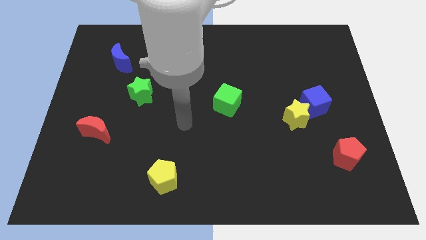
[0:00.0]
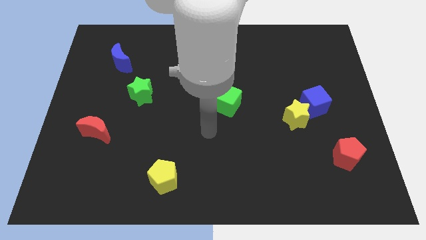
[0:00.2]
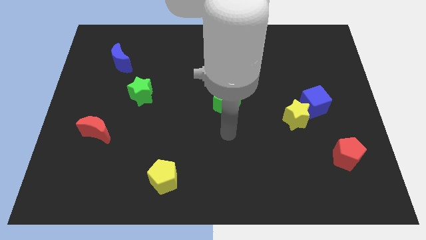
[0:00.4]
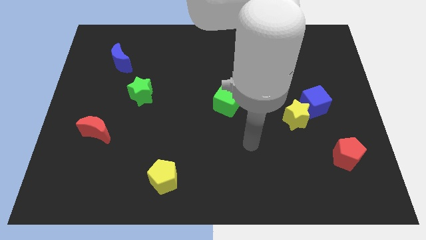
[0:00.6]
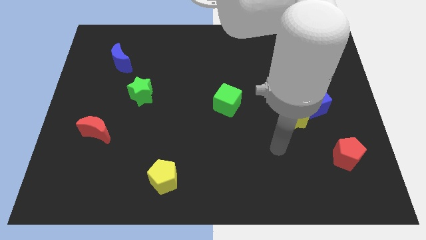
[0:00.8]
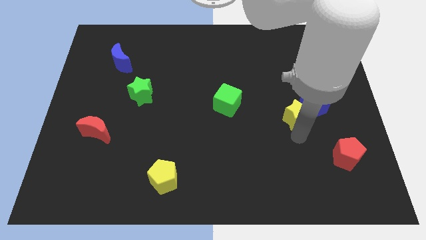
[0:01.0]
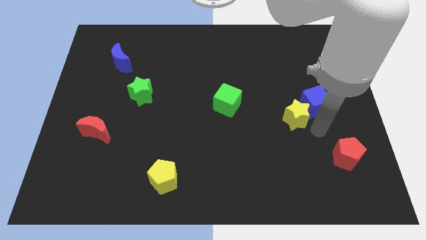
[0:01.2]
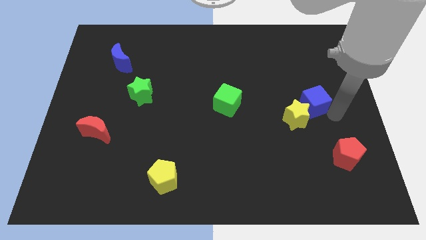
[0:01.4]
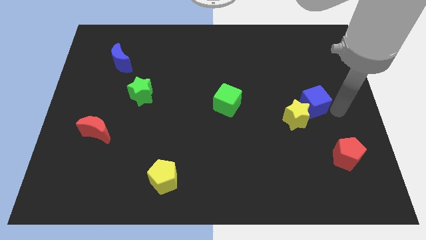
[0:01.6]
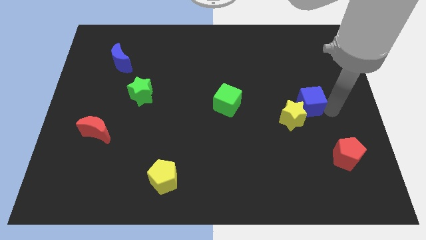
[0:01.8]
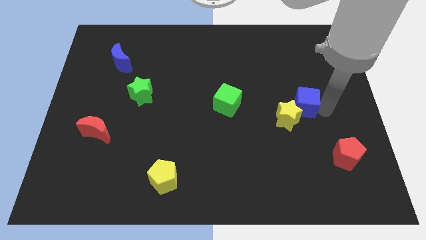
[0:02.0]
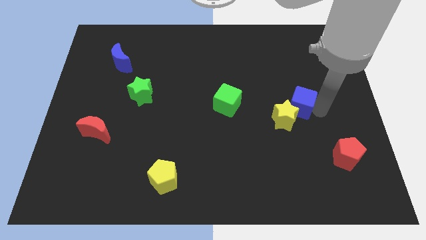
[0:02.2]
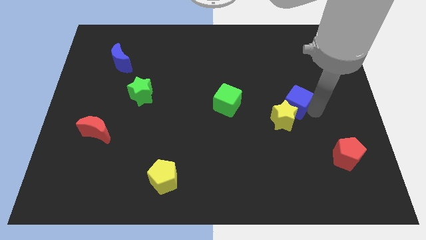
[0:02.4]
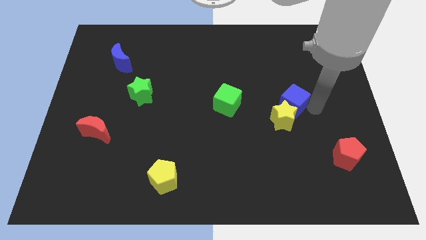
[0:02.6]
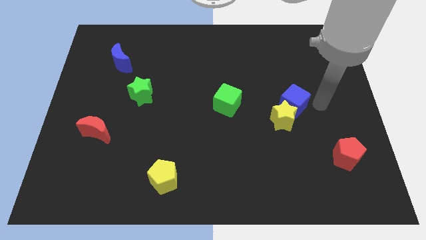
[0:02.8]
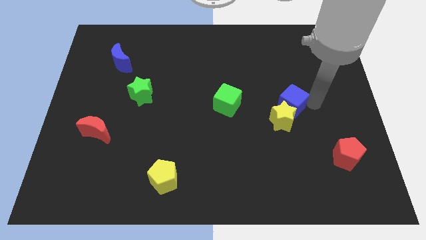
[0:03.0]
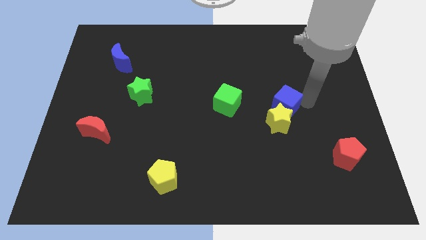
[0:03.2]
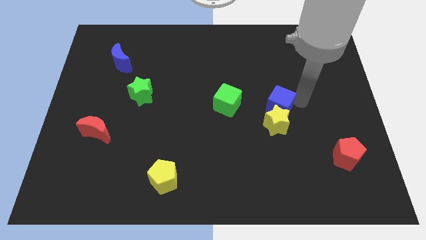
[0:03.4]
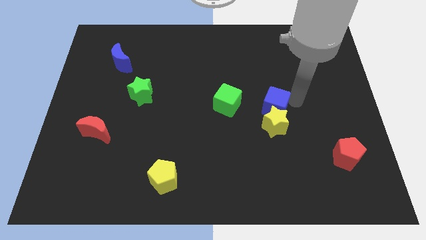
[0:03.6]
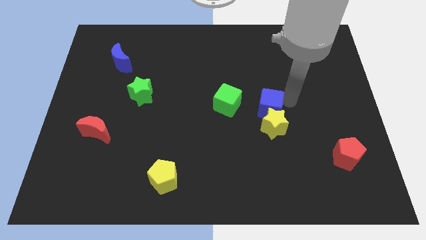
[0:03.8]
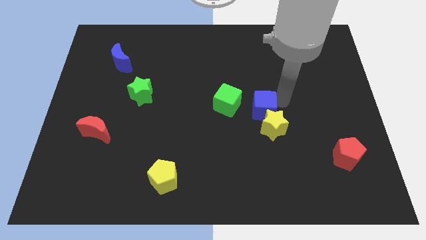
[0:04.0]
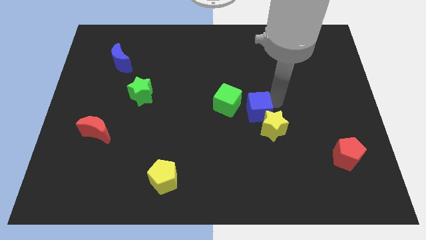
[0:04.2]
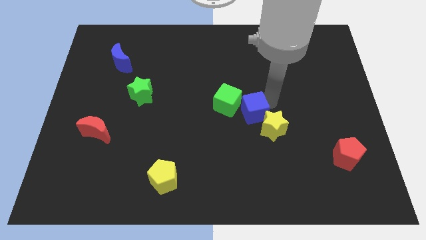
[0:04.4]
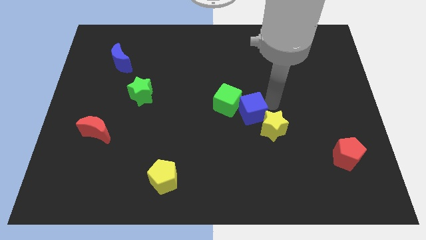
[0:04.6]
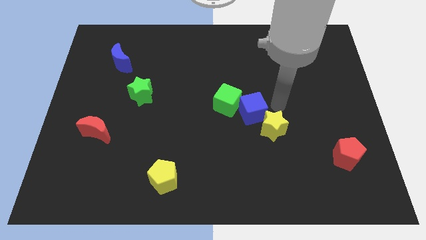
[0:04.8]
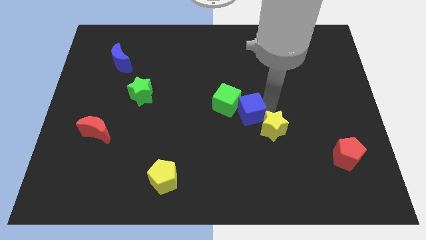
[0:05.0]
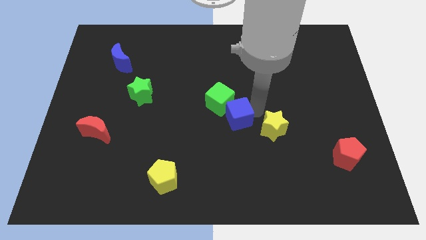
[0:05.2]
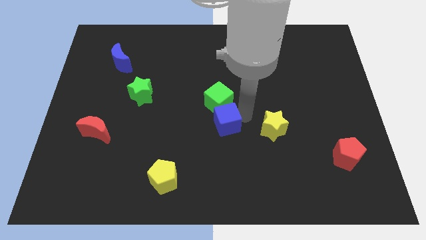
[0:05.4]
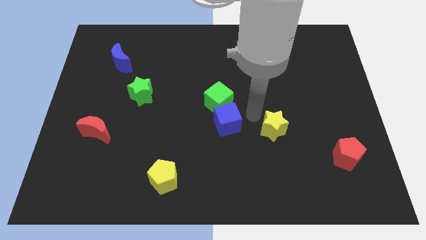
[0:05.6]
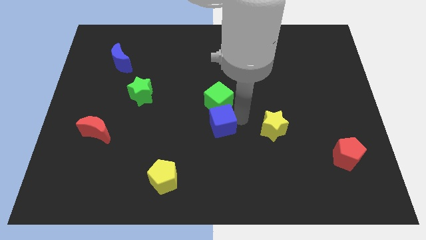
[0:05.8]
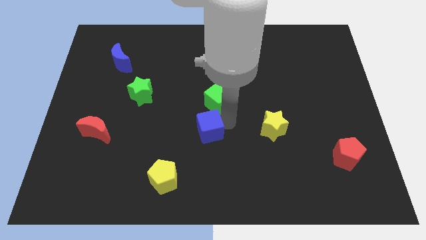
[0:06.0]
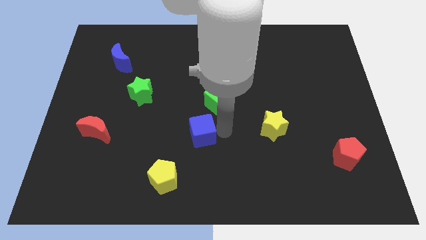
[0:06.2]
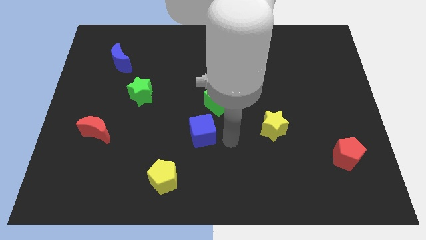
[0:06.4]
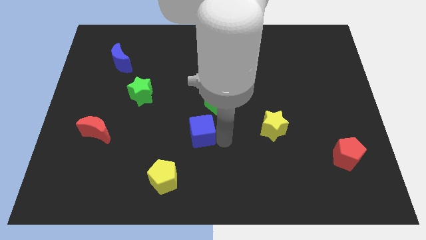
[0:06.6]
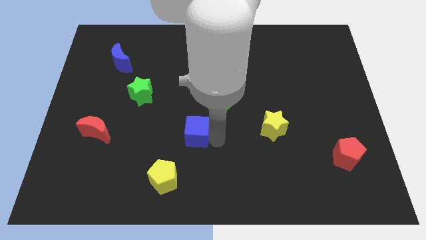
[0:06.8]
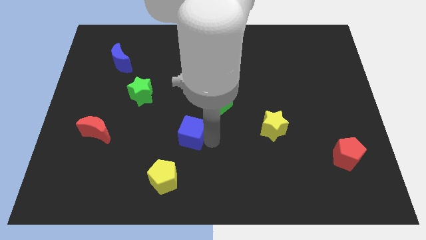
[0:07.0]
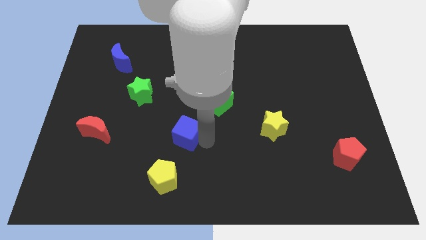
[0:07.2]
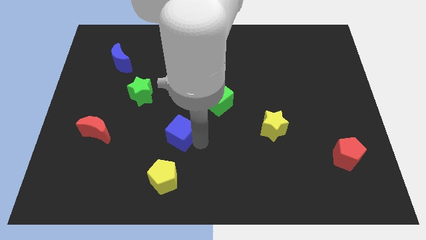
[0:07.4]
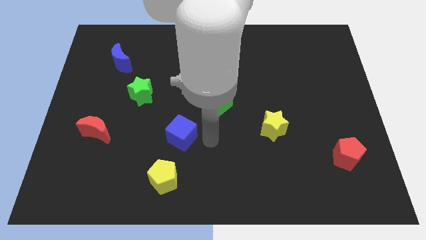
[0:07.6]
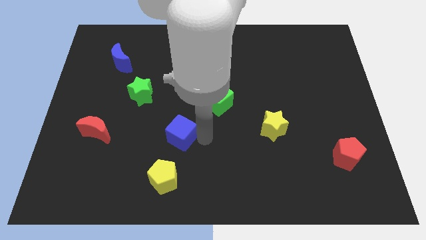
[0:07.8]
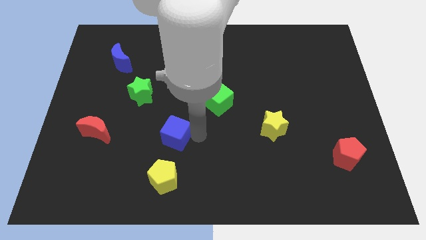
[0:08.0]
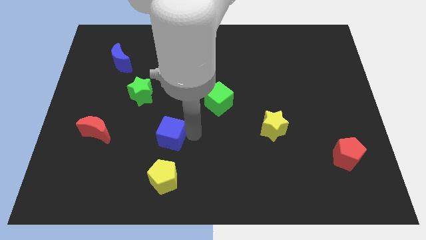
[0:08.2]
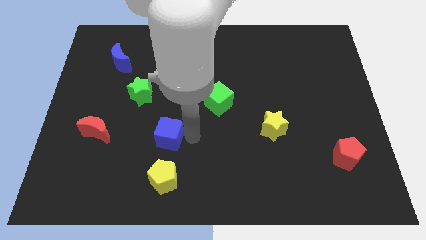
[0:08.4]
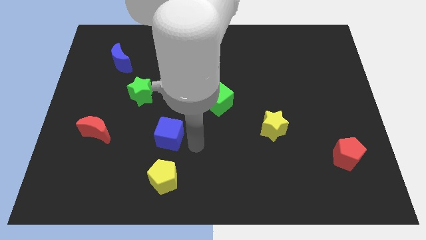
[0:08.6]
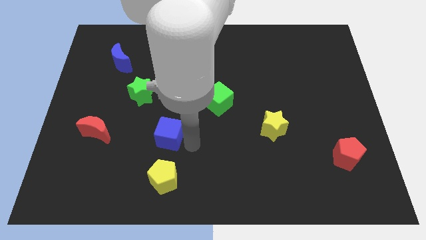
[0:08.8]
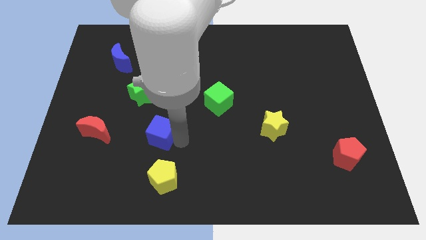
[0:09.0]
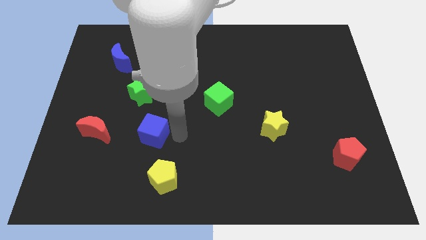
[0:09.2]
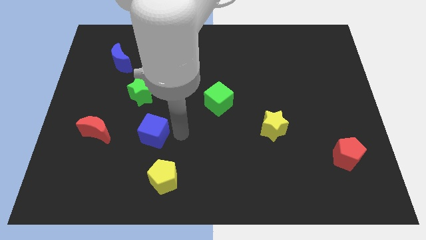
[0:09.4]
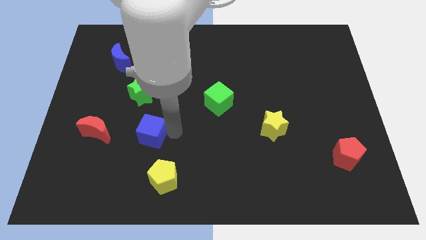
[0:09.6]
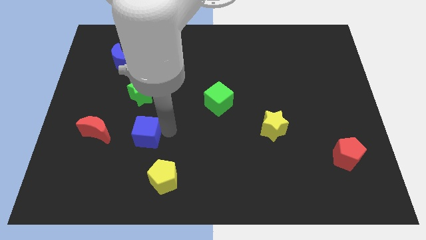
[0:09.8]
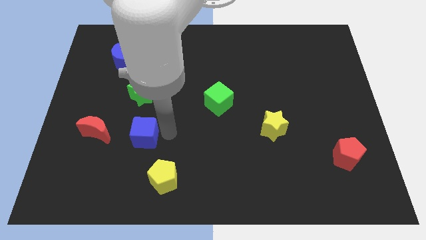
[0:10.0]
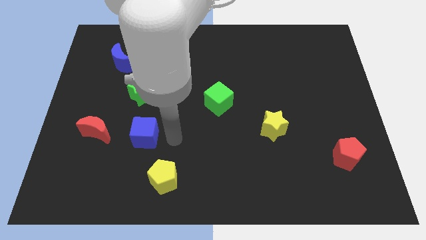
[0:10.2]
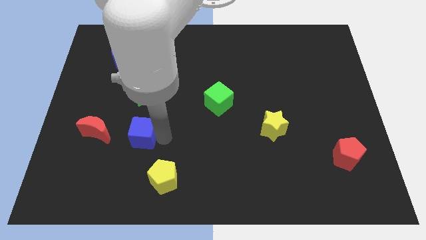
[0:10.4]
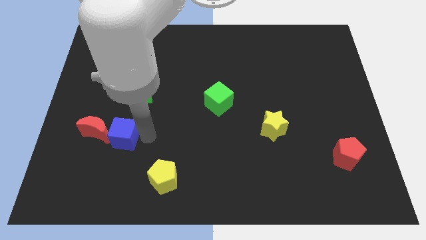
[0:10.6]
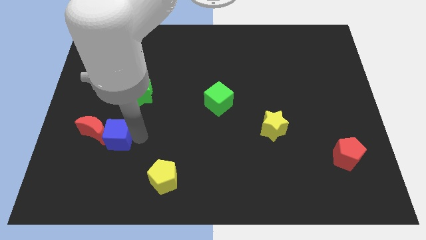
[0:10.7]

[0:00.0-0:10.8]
push the blue cube to the red moon
